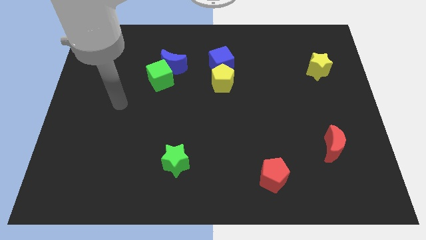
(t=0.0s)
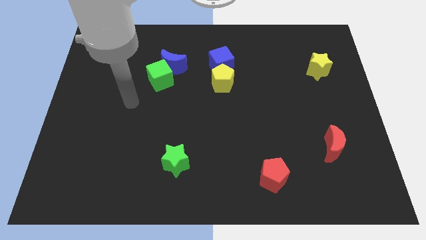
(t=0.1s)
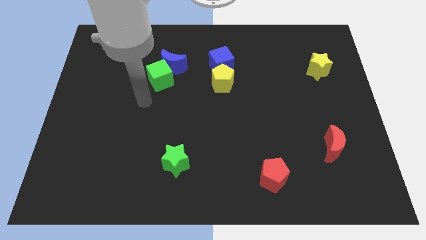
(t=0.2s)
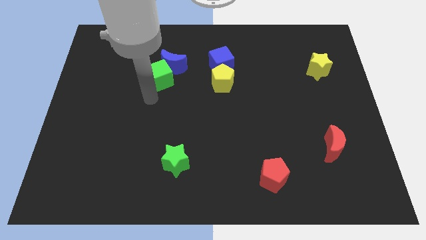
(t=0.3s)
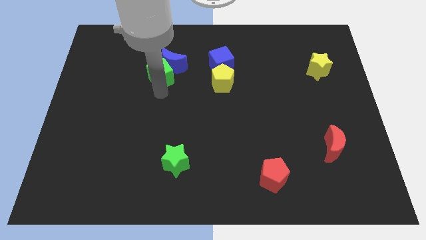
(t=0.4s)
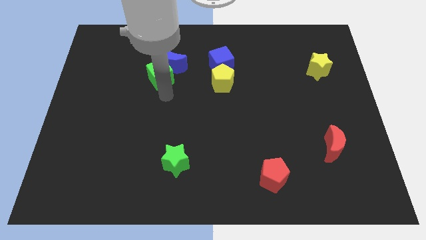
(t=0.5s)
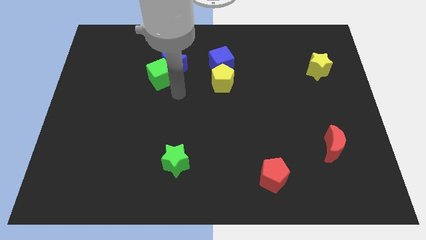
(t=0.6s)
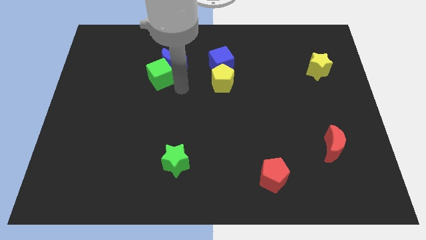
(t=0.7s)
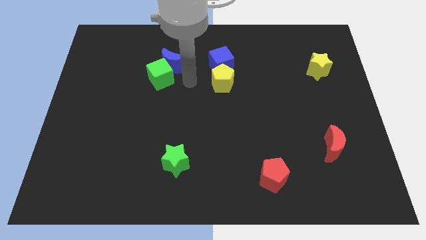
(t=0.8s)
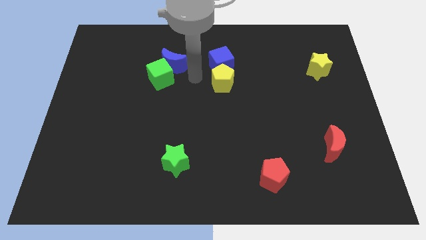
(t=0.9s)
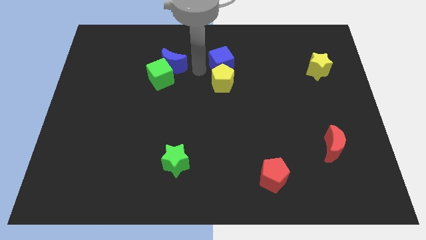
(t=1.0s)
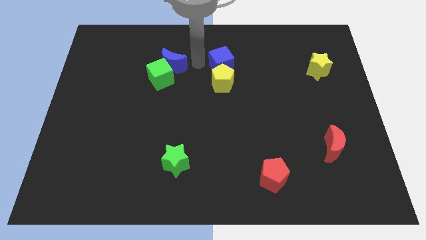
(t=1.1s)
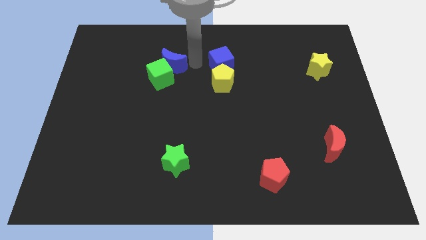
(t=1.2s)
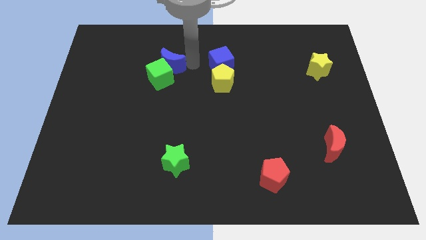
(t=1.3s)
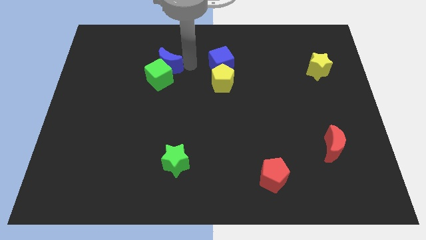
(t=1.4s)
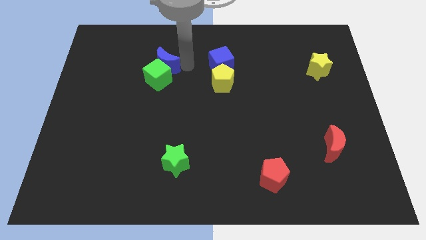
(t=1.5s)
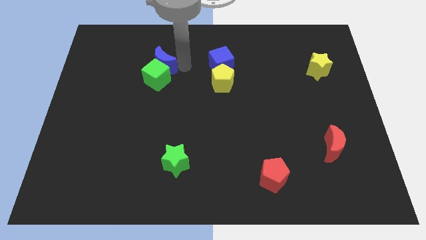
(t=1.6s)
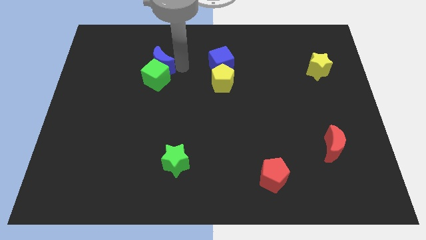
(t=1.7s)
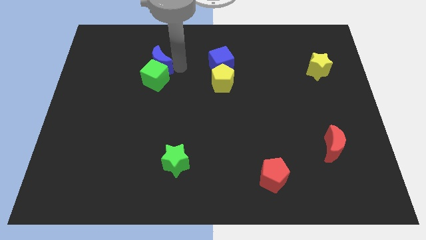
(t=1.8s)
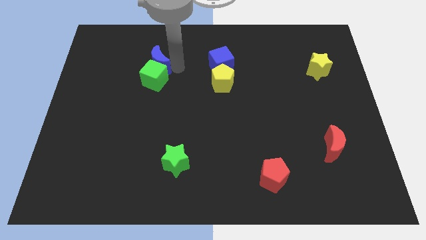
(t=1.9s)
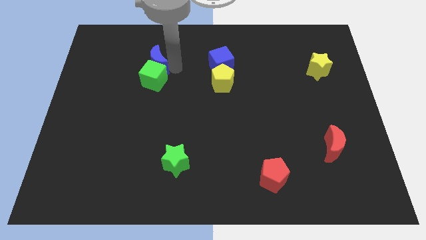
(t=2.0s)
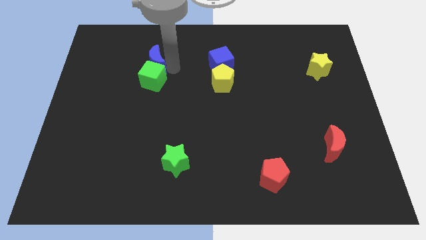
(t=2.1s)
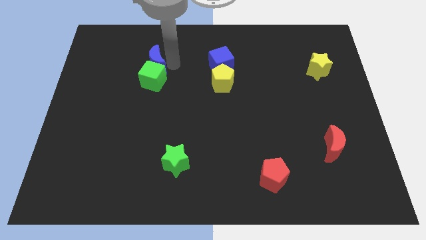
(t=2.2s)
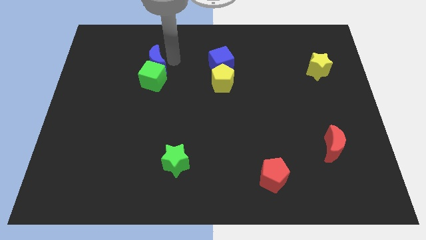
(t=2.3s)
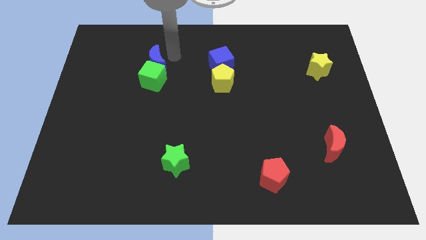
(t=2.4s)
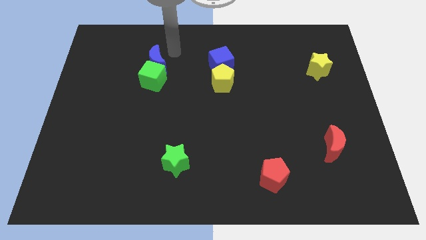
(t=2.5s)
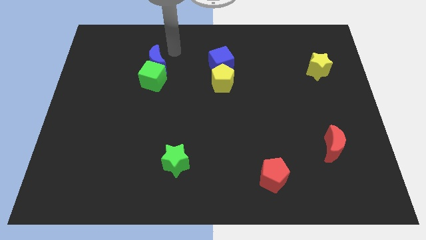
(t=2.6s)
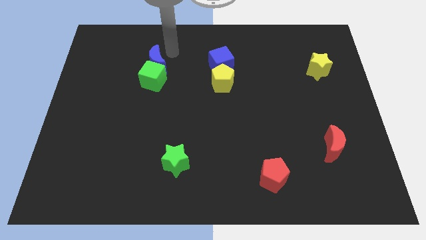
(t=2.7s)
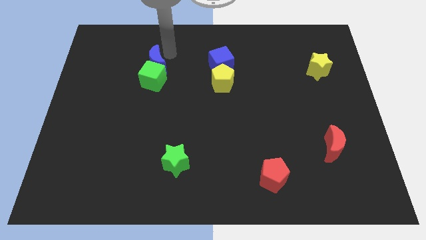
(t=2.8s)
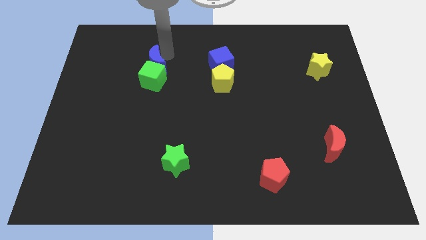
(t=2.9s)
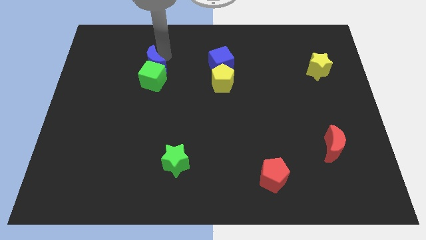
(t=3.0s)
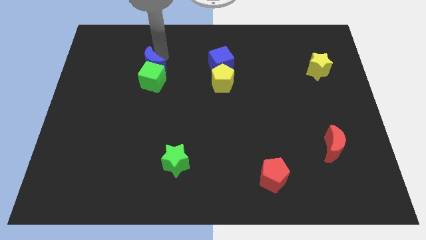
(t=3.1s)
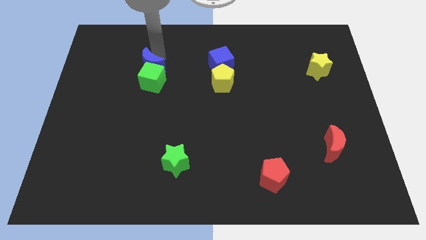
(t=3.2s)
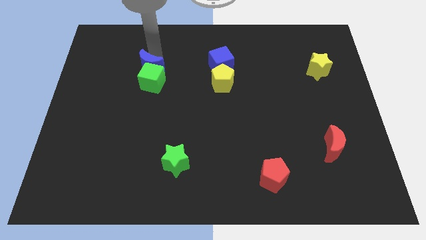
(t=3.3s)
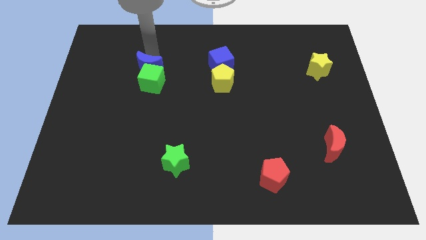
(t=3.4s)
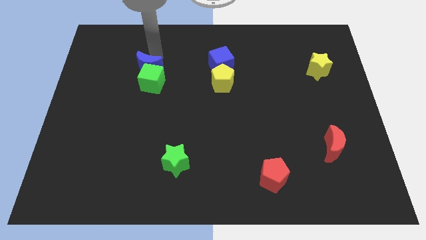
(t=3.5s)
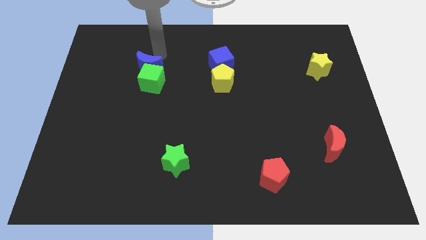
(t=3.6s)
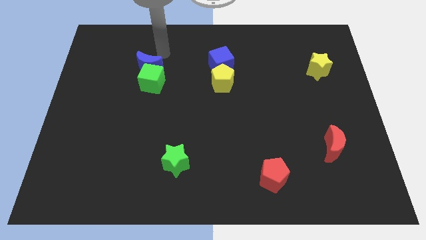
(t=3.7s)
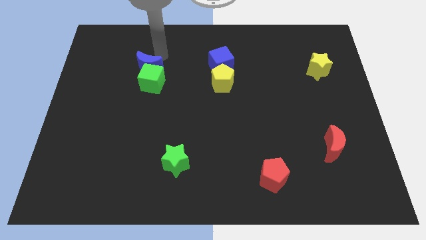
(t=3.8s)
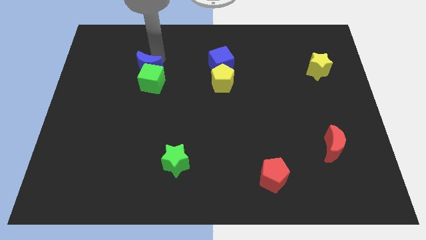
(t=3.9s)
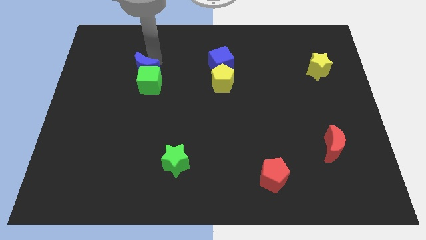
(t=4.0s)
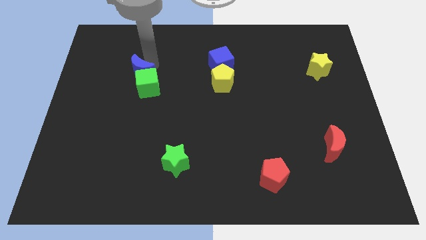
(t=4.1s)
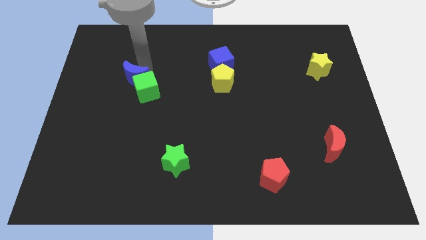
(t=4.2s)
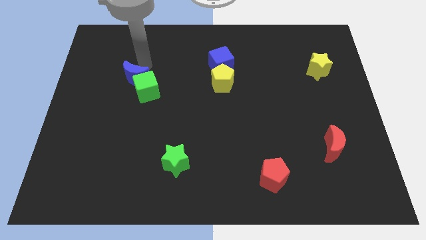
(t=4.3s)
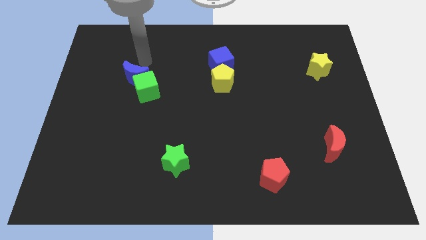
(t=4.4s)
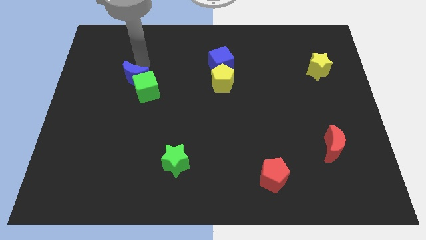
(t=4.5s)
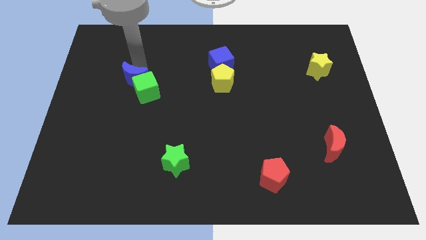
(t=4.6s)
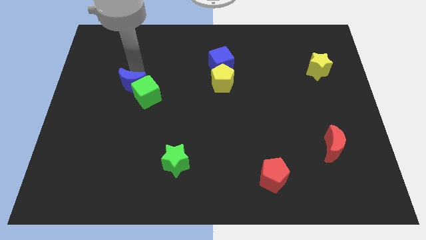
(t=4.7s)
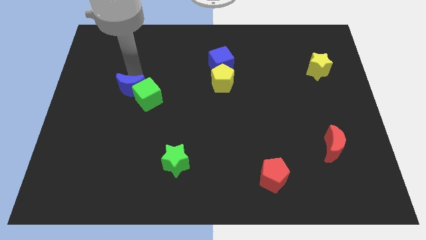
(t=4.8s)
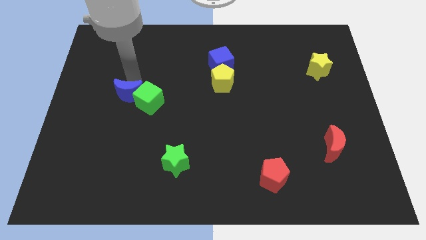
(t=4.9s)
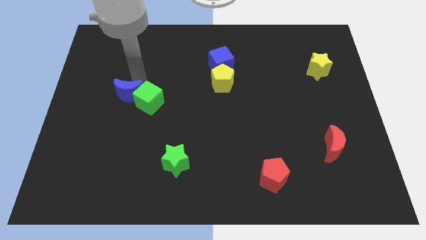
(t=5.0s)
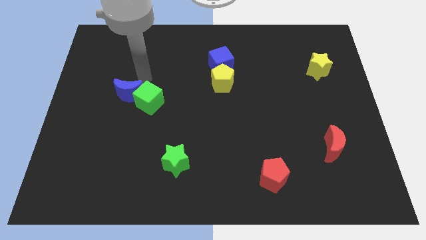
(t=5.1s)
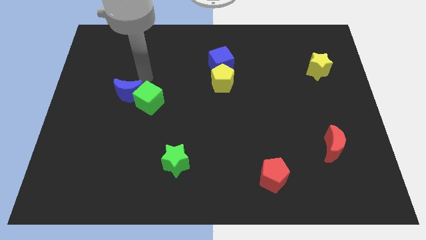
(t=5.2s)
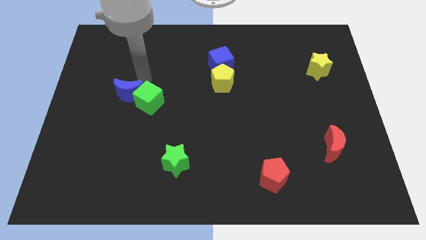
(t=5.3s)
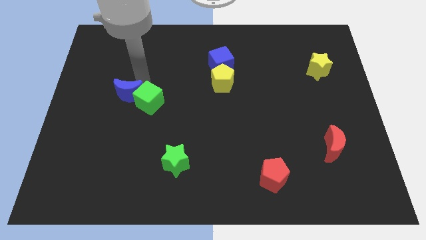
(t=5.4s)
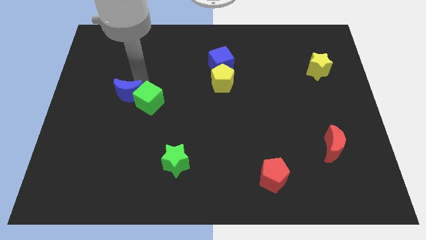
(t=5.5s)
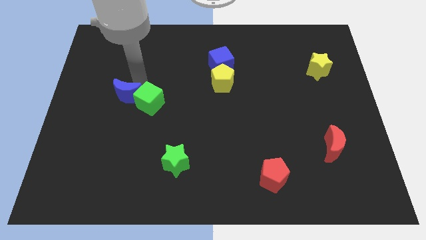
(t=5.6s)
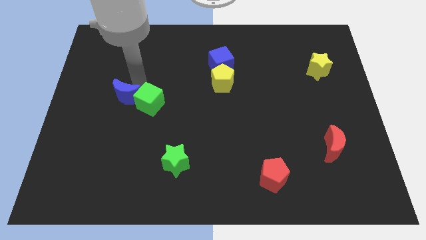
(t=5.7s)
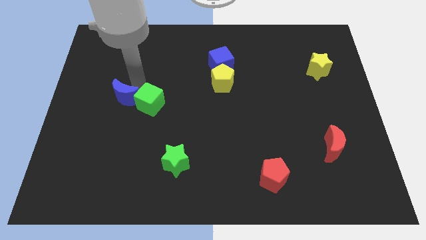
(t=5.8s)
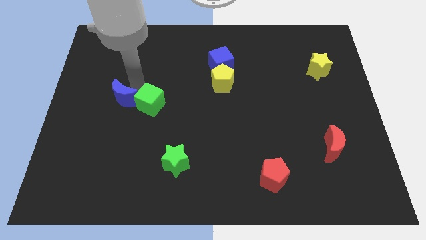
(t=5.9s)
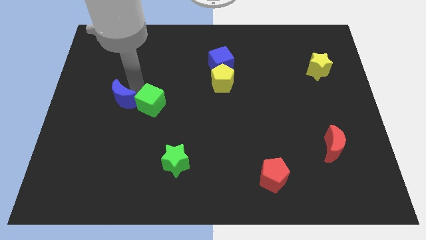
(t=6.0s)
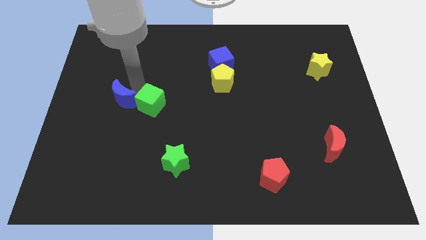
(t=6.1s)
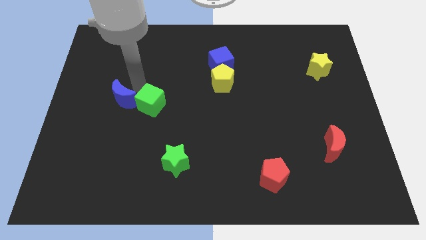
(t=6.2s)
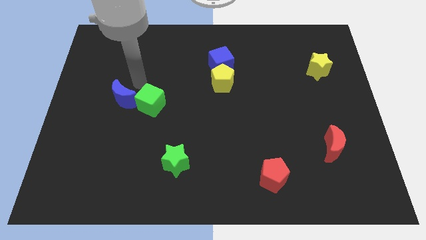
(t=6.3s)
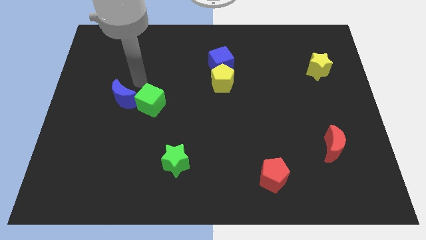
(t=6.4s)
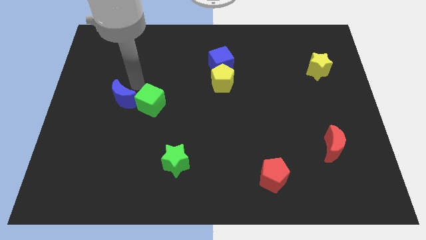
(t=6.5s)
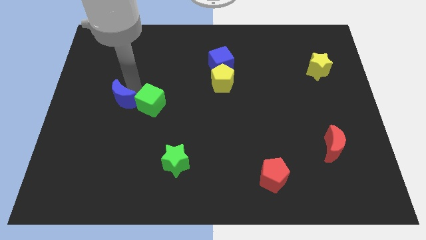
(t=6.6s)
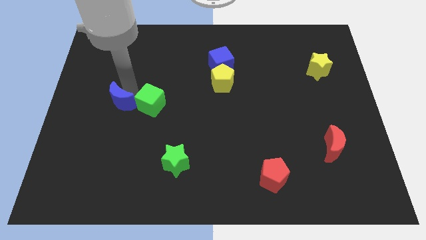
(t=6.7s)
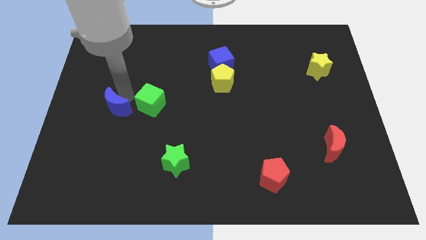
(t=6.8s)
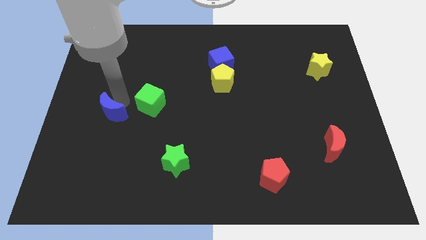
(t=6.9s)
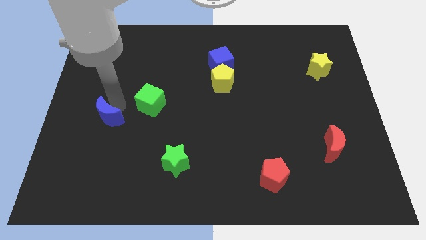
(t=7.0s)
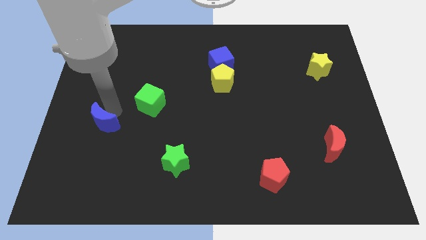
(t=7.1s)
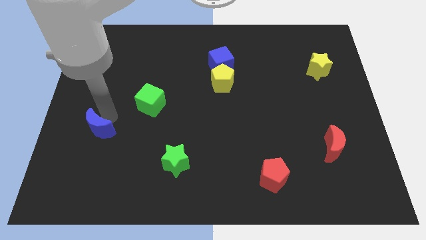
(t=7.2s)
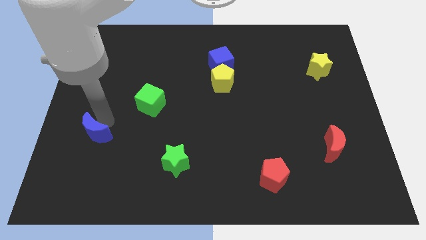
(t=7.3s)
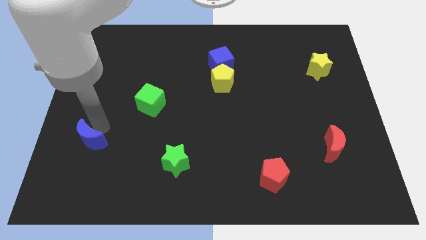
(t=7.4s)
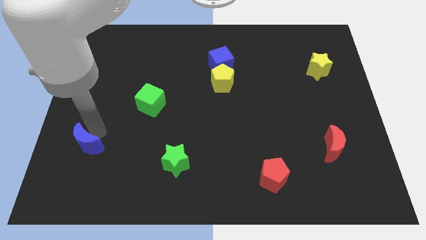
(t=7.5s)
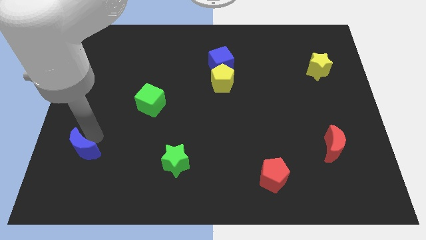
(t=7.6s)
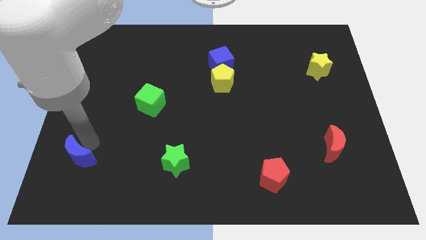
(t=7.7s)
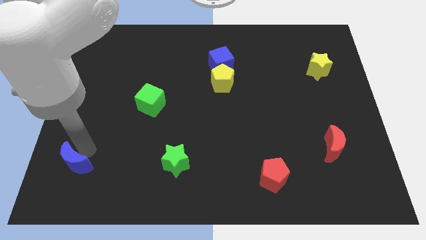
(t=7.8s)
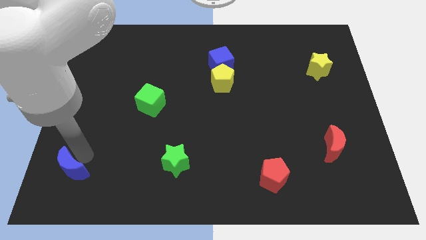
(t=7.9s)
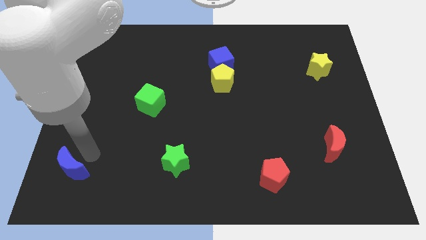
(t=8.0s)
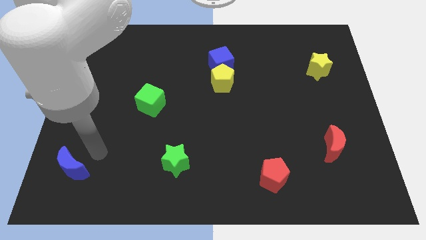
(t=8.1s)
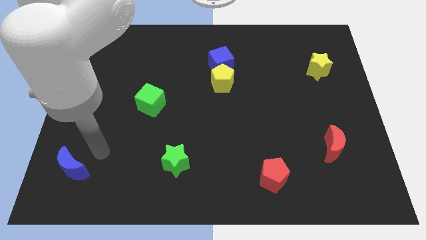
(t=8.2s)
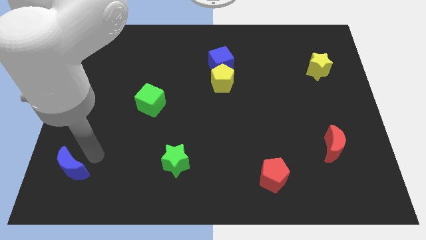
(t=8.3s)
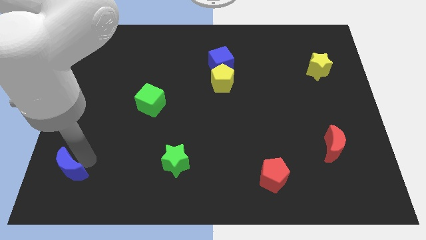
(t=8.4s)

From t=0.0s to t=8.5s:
slide the blue moon to the lower left corner
